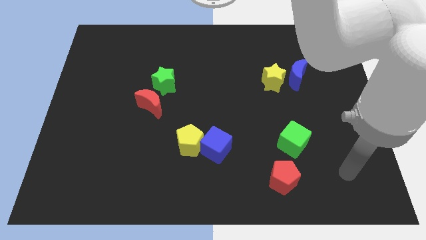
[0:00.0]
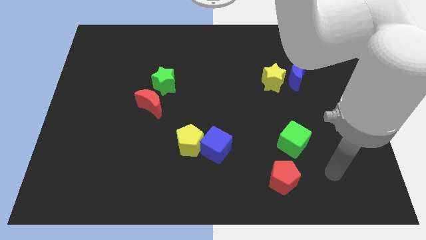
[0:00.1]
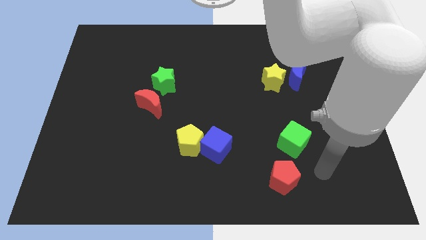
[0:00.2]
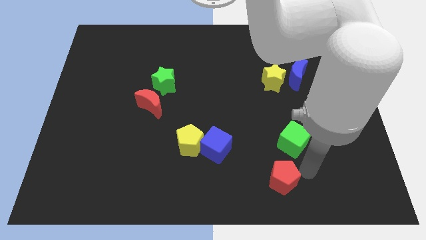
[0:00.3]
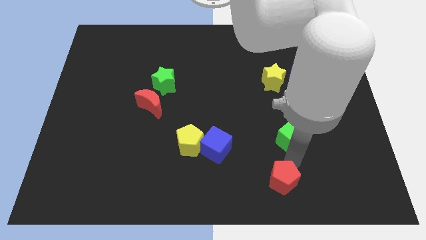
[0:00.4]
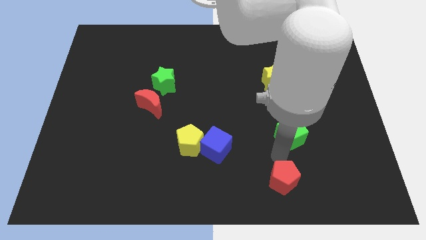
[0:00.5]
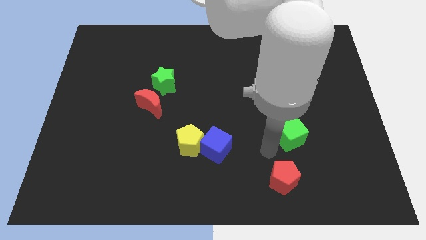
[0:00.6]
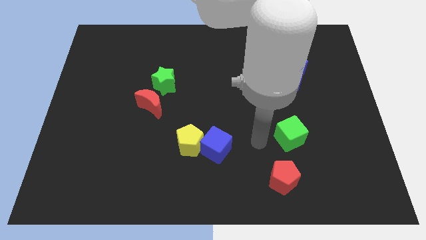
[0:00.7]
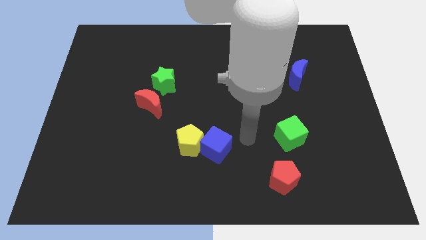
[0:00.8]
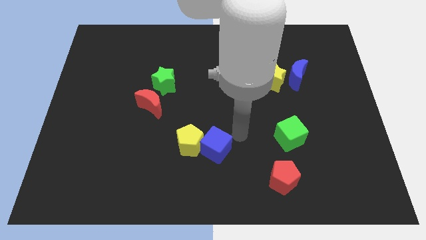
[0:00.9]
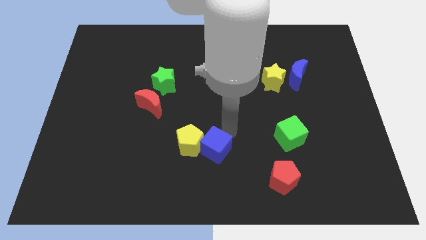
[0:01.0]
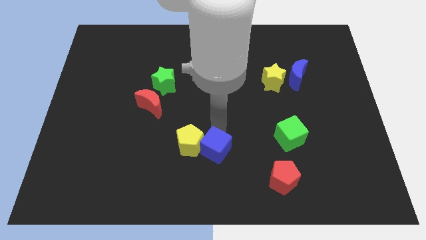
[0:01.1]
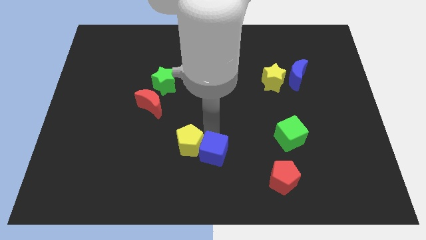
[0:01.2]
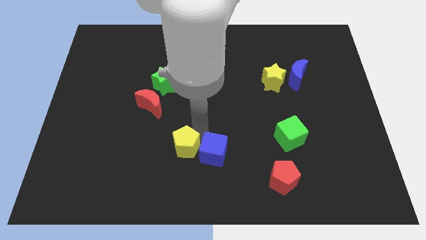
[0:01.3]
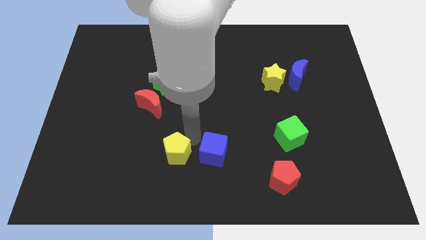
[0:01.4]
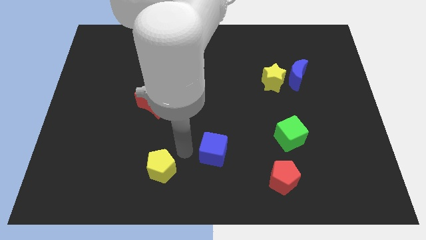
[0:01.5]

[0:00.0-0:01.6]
separate the blue cube from the yellow pentagon

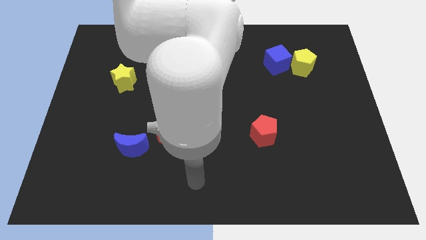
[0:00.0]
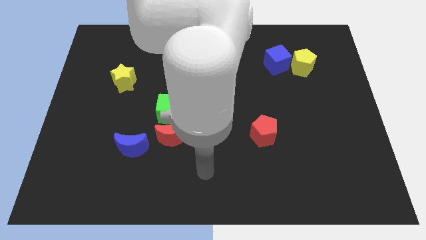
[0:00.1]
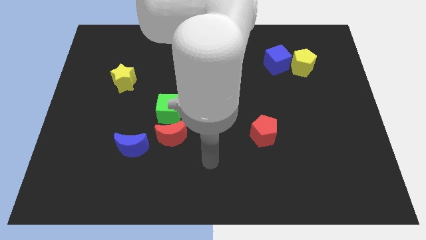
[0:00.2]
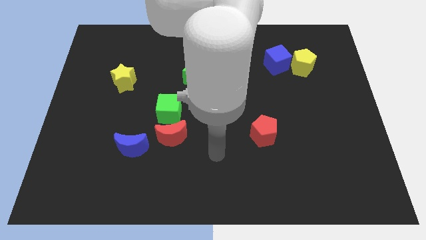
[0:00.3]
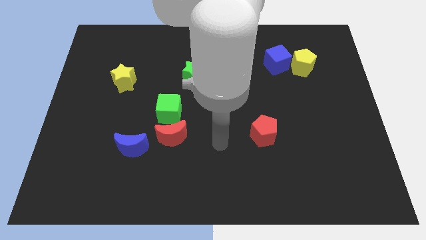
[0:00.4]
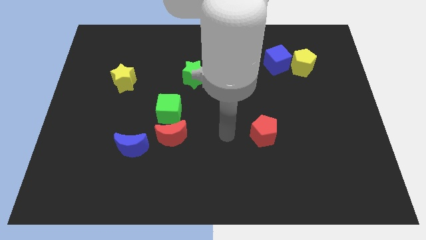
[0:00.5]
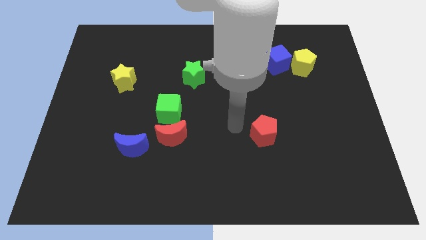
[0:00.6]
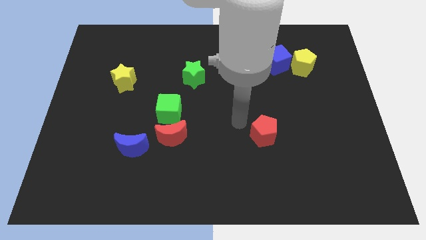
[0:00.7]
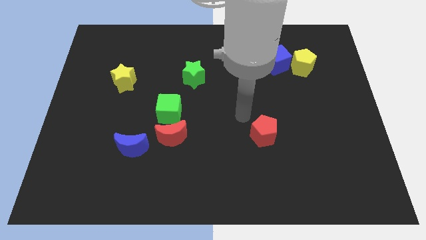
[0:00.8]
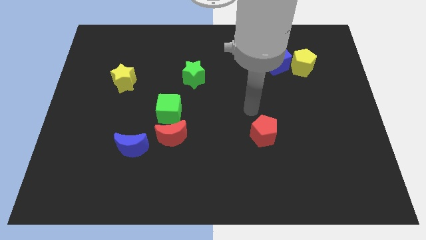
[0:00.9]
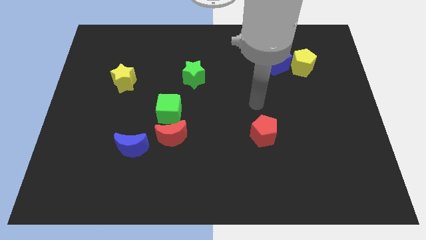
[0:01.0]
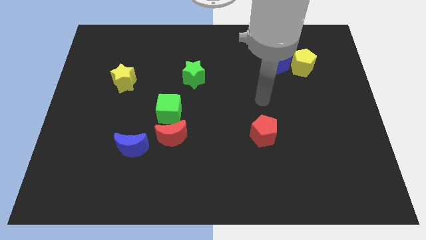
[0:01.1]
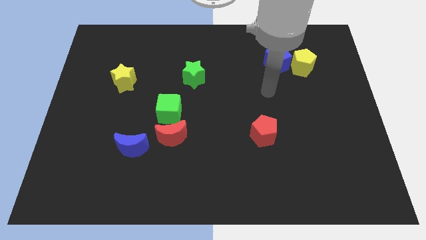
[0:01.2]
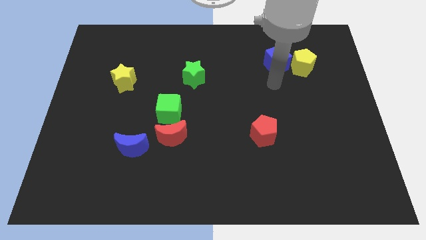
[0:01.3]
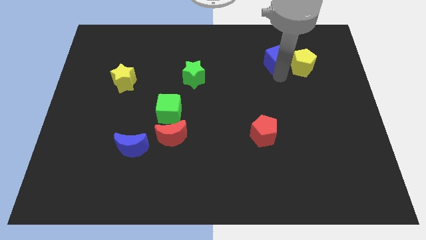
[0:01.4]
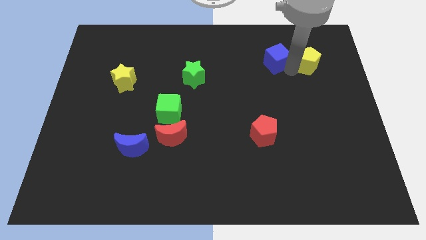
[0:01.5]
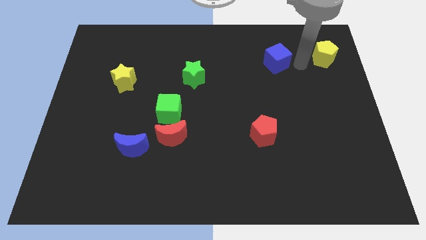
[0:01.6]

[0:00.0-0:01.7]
pull the blue cube apart from the yellow pentagon

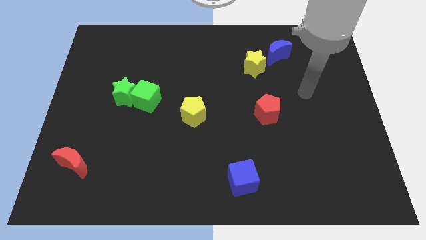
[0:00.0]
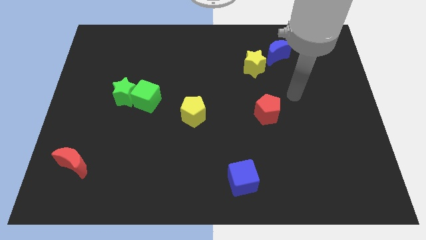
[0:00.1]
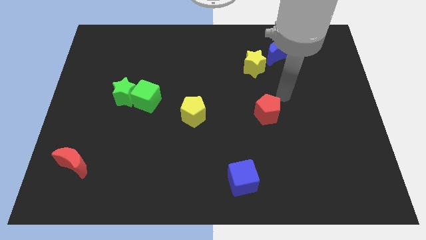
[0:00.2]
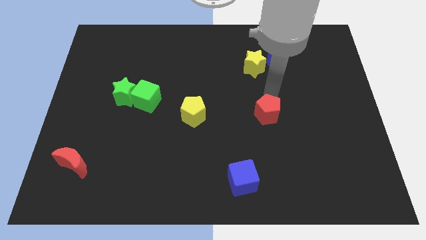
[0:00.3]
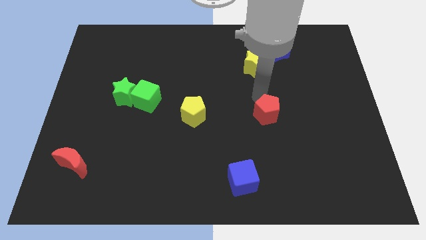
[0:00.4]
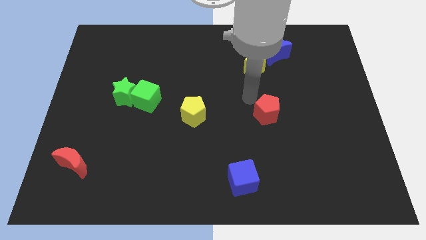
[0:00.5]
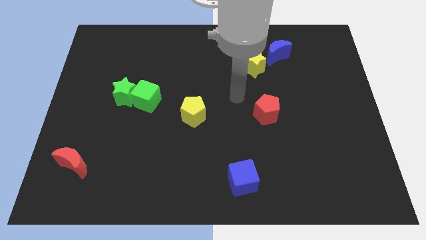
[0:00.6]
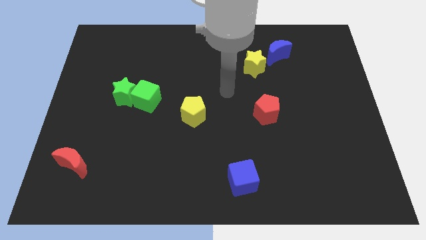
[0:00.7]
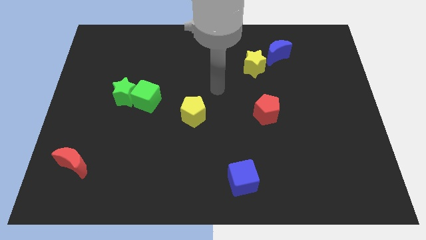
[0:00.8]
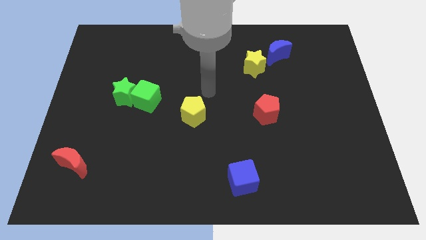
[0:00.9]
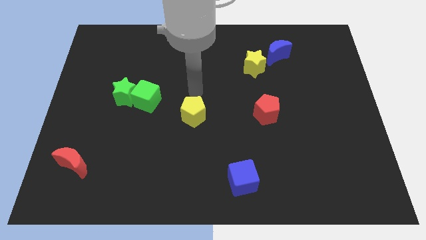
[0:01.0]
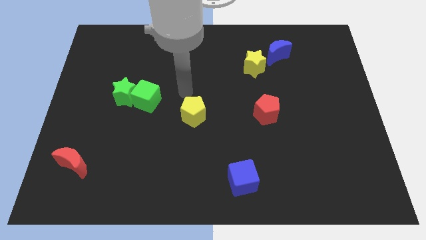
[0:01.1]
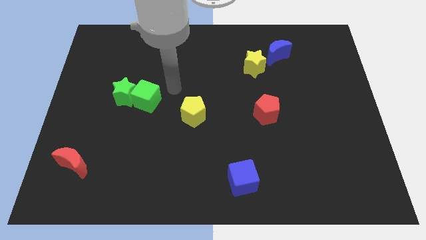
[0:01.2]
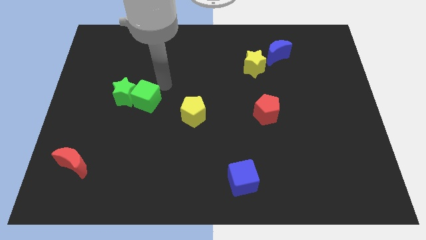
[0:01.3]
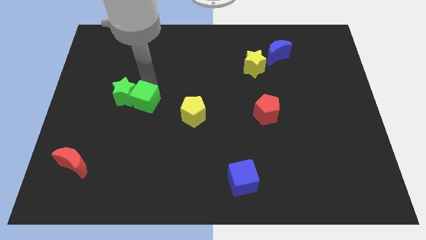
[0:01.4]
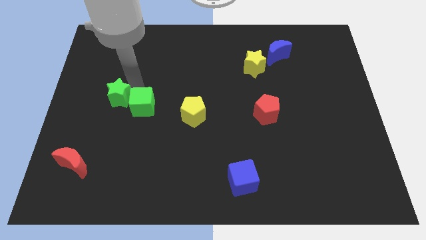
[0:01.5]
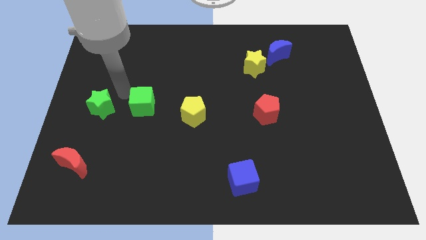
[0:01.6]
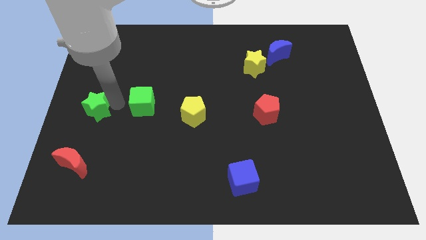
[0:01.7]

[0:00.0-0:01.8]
separate the green cube from the green star

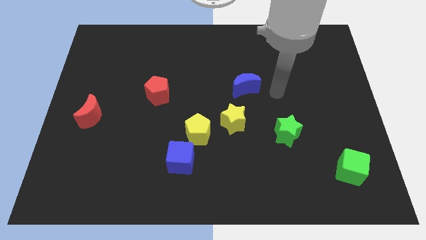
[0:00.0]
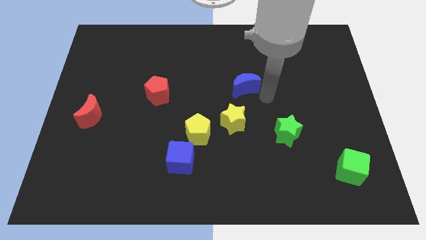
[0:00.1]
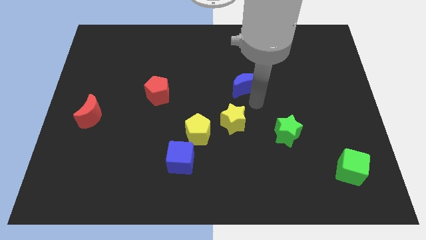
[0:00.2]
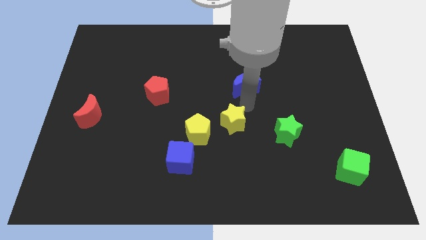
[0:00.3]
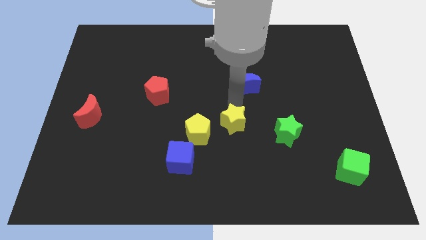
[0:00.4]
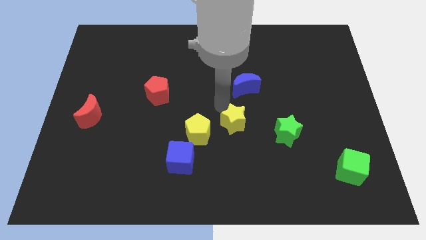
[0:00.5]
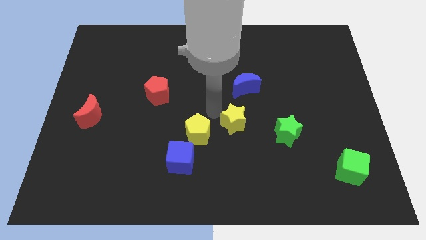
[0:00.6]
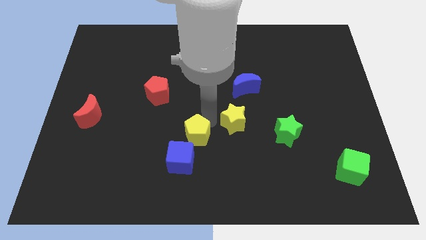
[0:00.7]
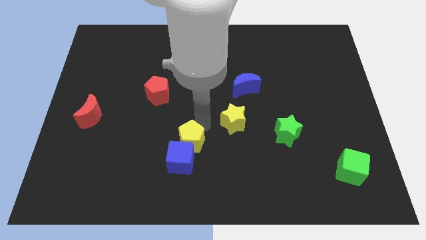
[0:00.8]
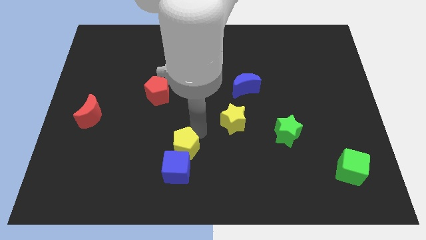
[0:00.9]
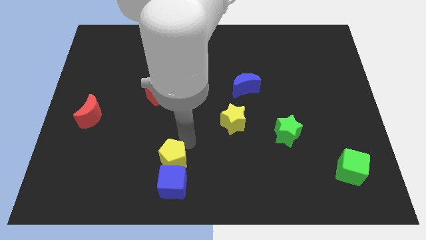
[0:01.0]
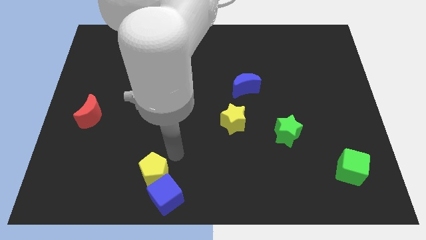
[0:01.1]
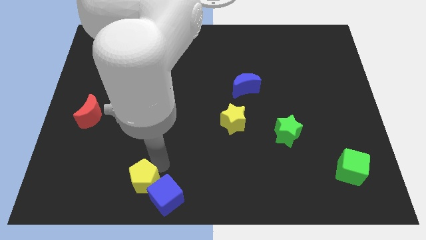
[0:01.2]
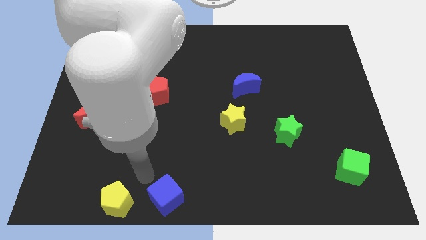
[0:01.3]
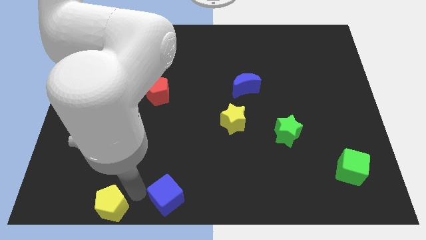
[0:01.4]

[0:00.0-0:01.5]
move the blue cube away from the yellow pentagon

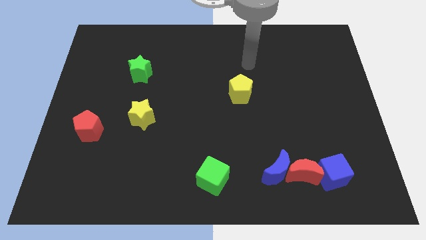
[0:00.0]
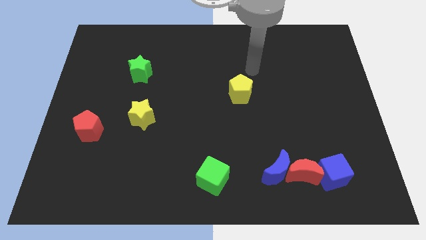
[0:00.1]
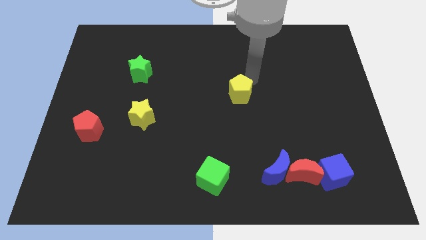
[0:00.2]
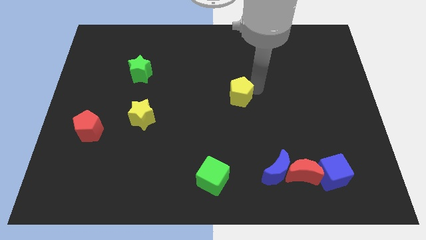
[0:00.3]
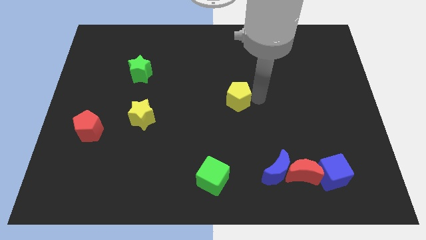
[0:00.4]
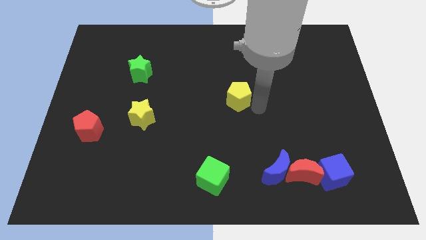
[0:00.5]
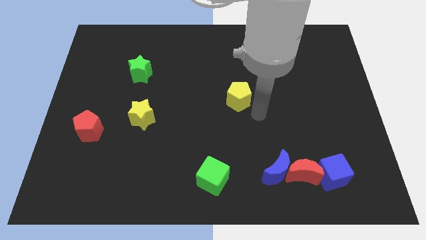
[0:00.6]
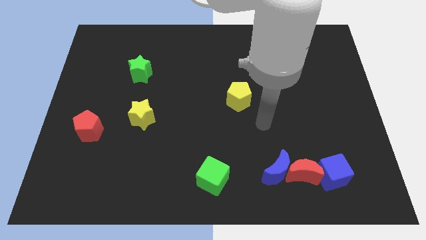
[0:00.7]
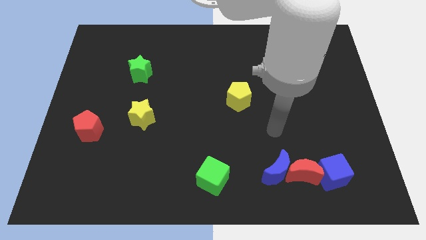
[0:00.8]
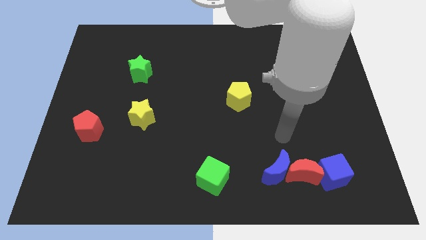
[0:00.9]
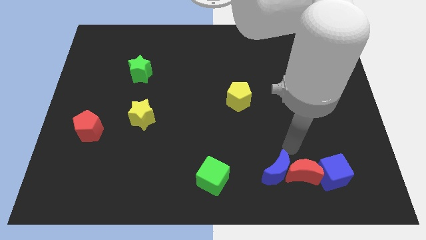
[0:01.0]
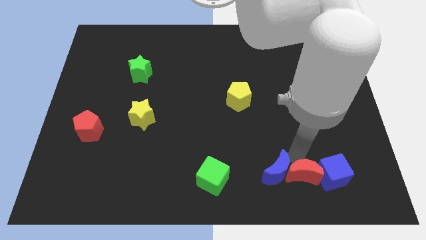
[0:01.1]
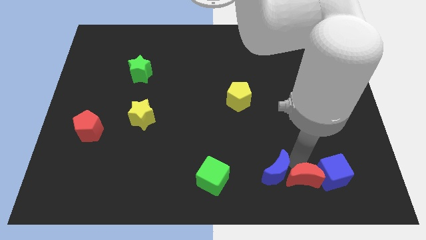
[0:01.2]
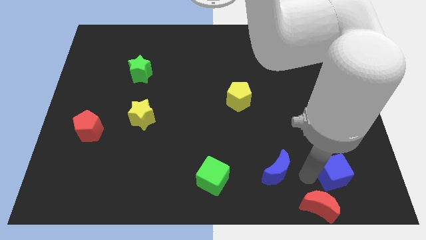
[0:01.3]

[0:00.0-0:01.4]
move the blue moon away from the red moon

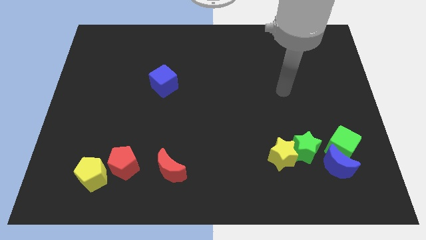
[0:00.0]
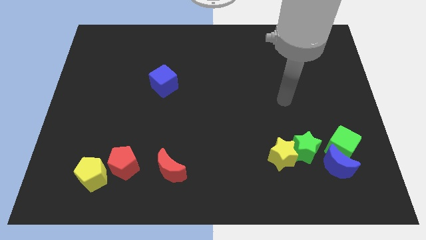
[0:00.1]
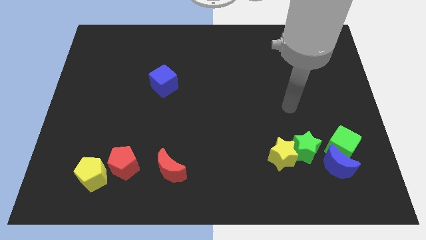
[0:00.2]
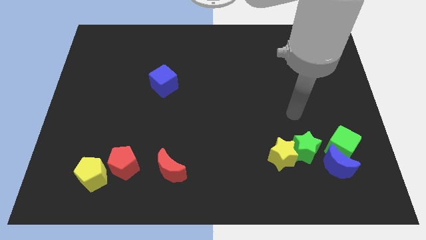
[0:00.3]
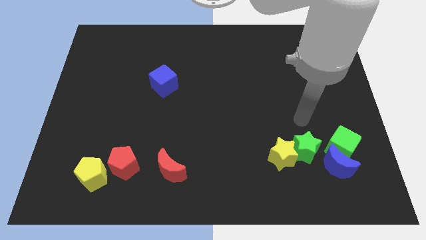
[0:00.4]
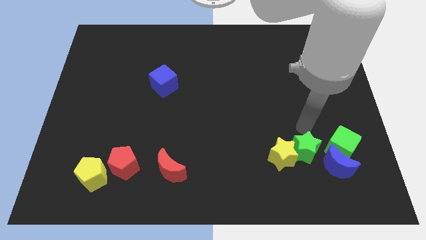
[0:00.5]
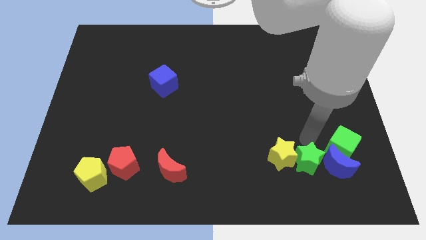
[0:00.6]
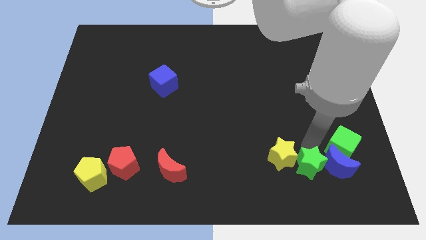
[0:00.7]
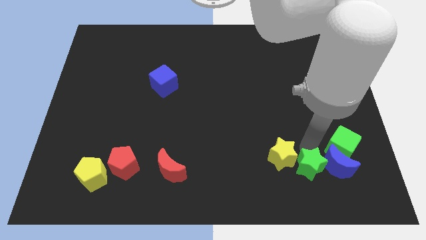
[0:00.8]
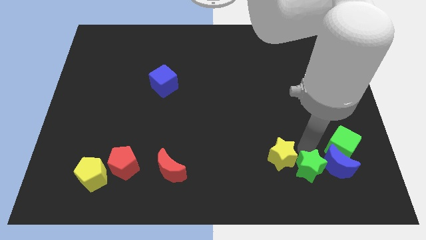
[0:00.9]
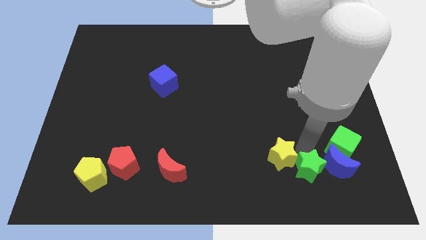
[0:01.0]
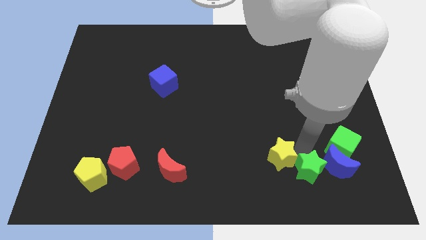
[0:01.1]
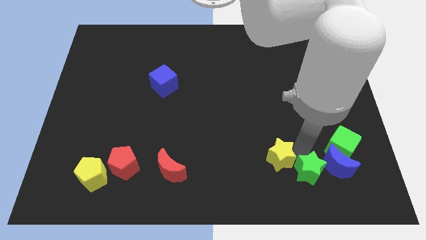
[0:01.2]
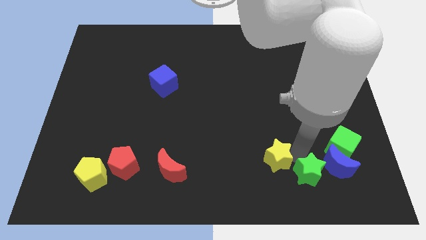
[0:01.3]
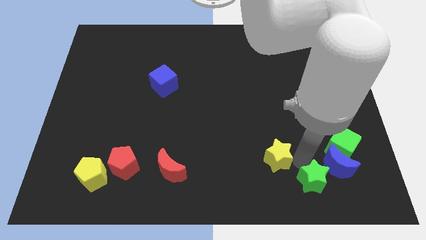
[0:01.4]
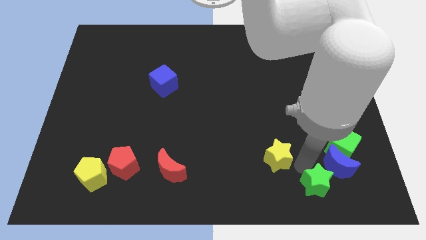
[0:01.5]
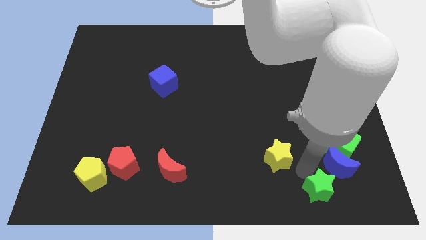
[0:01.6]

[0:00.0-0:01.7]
move the yellow star away from the green star
